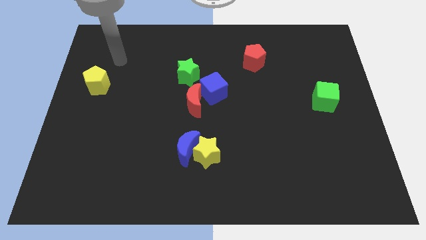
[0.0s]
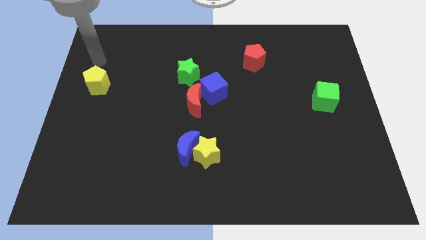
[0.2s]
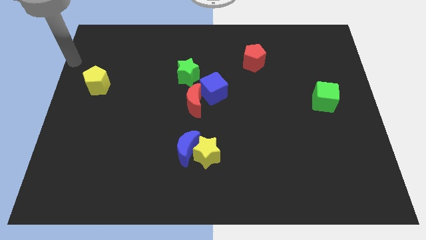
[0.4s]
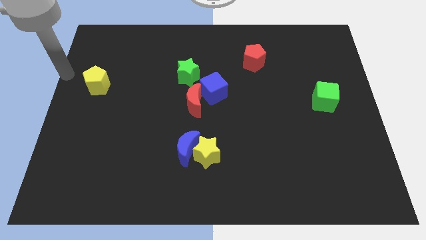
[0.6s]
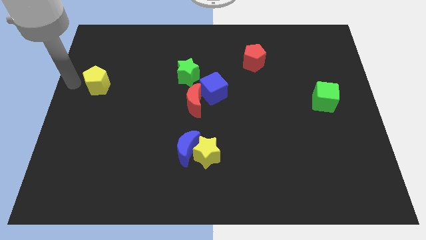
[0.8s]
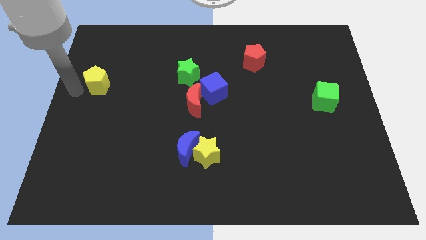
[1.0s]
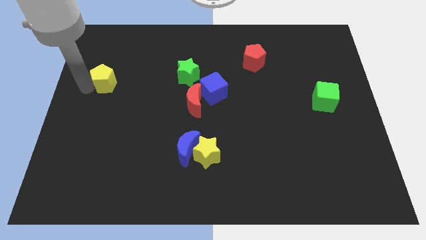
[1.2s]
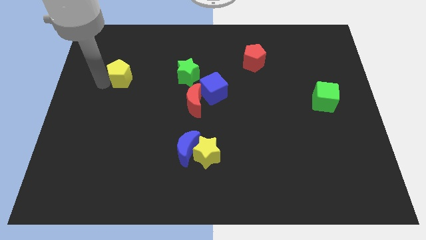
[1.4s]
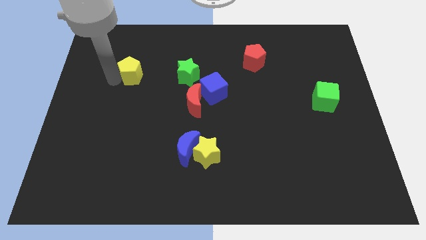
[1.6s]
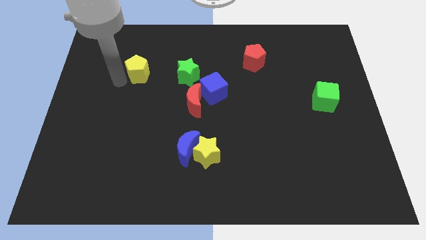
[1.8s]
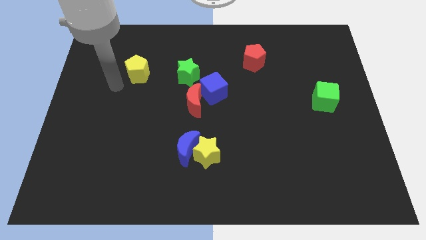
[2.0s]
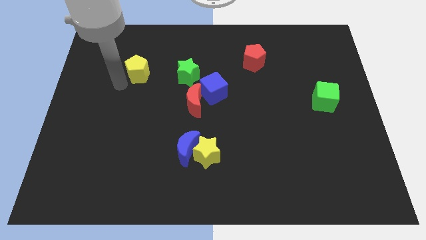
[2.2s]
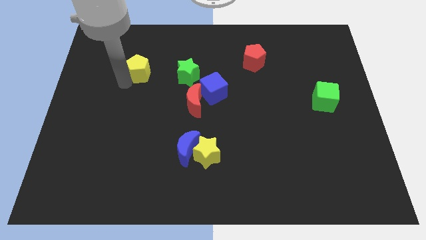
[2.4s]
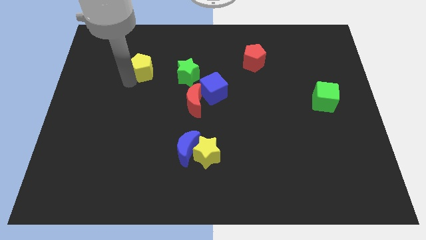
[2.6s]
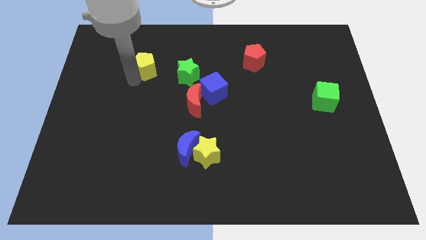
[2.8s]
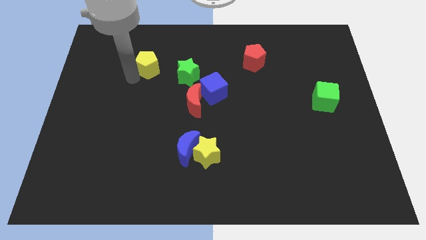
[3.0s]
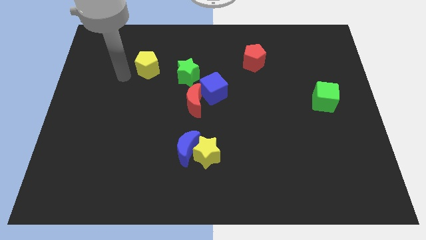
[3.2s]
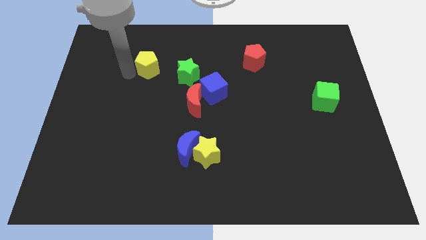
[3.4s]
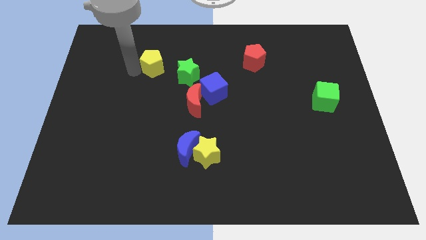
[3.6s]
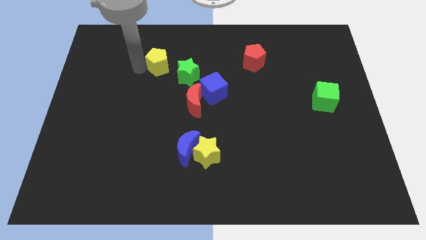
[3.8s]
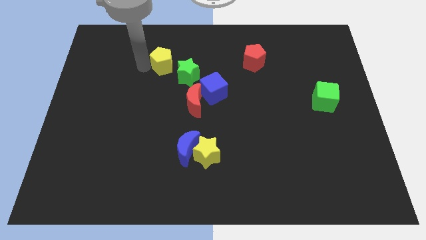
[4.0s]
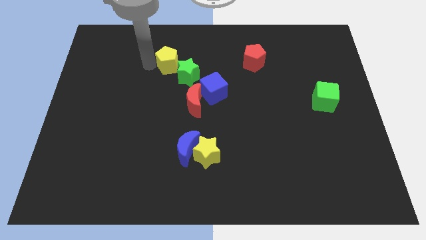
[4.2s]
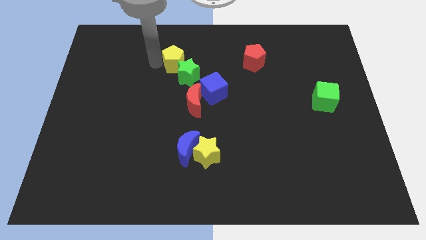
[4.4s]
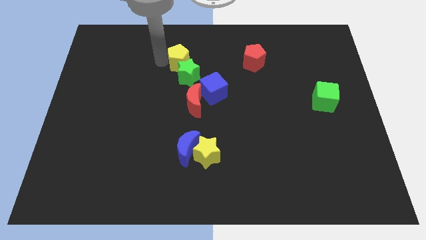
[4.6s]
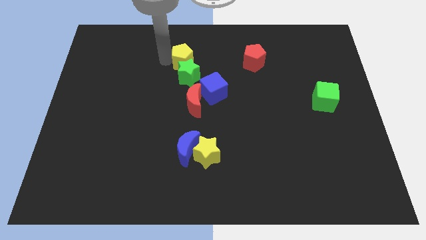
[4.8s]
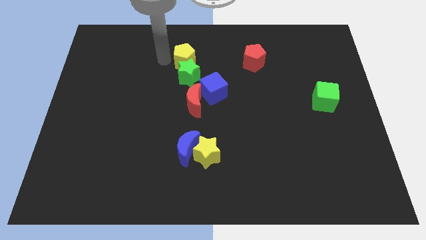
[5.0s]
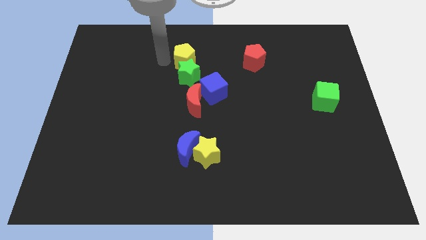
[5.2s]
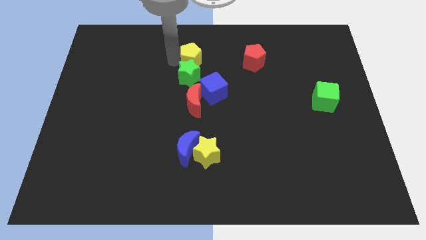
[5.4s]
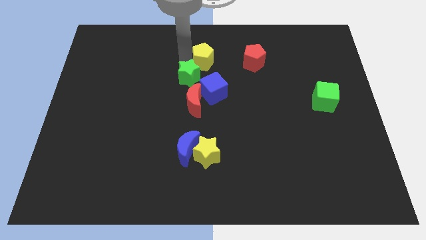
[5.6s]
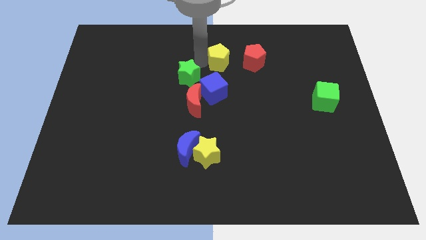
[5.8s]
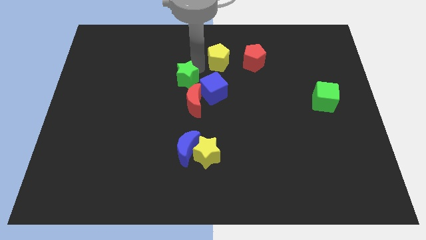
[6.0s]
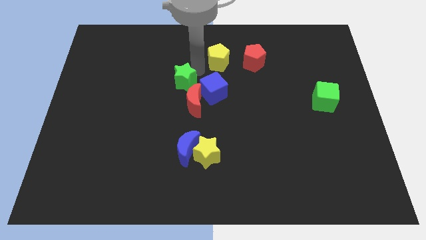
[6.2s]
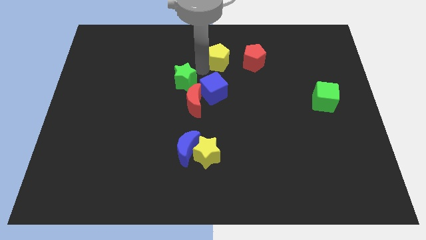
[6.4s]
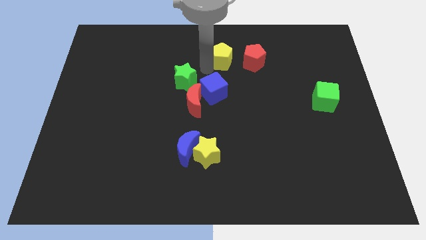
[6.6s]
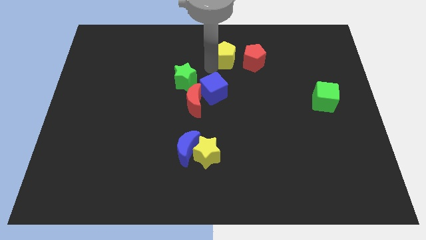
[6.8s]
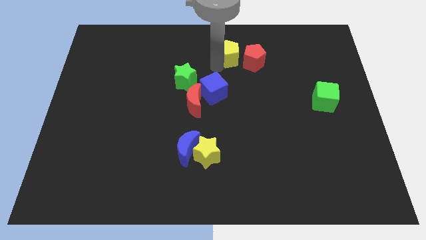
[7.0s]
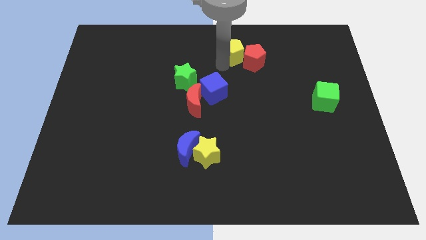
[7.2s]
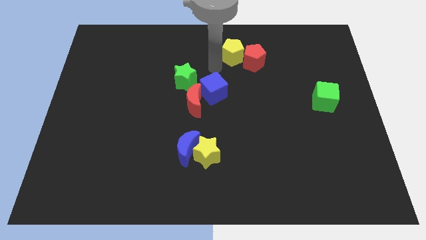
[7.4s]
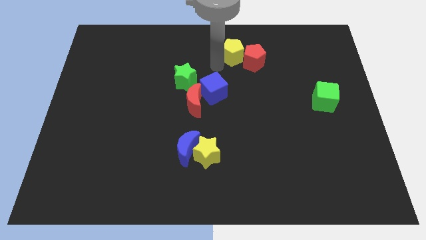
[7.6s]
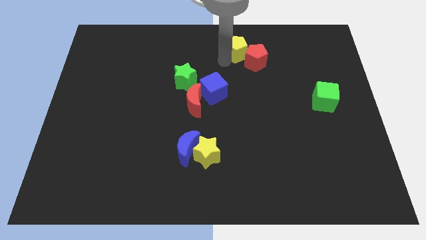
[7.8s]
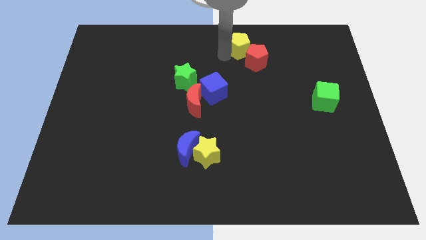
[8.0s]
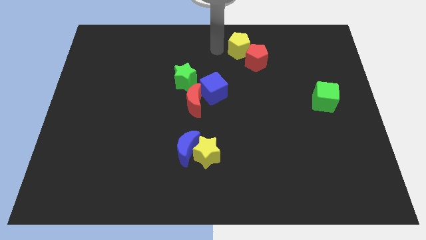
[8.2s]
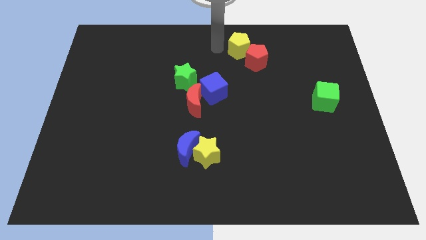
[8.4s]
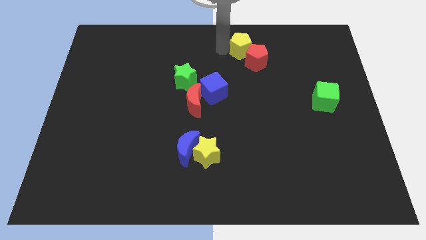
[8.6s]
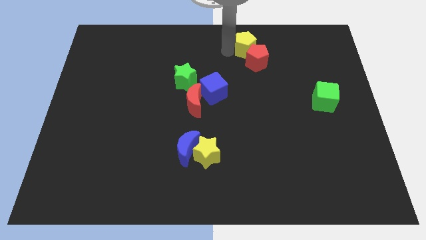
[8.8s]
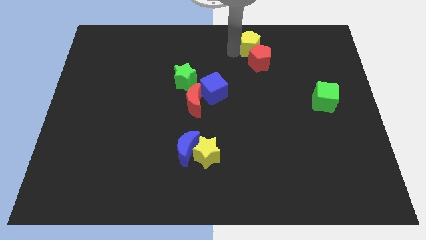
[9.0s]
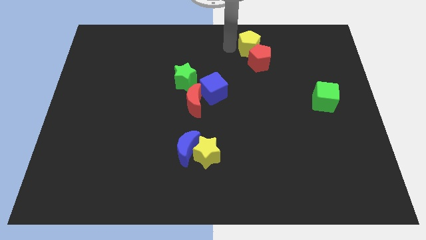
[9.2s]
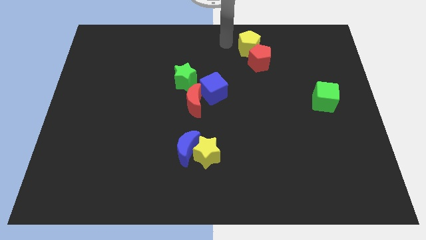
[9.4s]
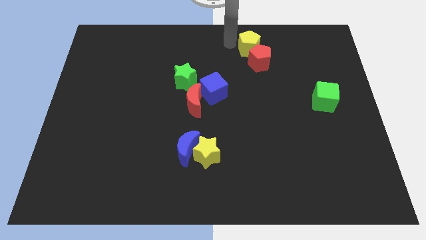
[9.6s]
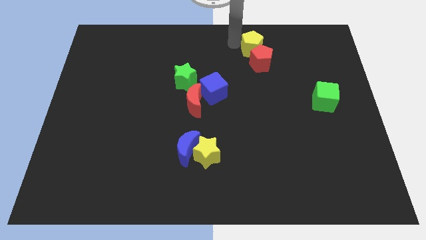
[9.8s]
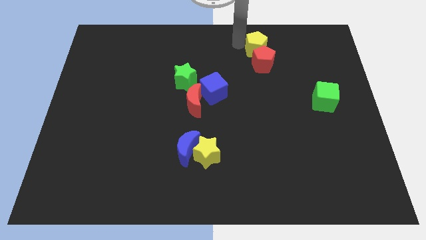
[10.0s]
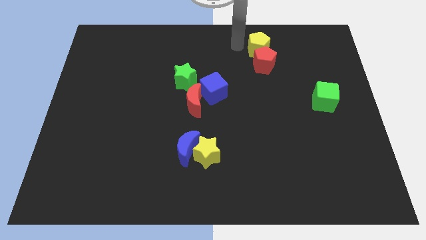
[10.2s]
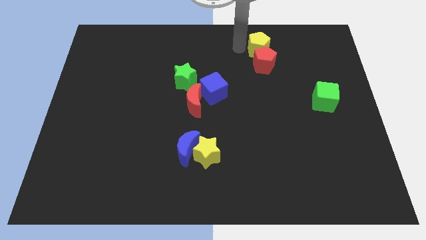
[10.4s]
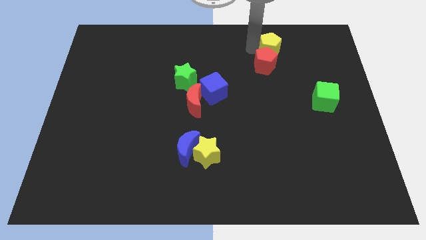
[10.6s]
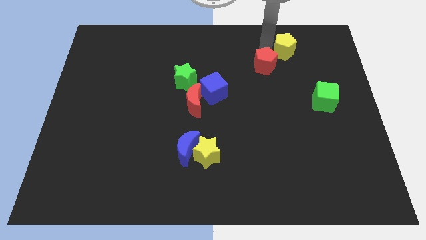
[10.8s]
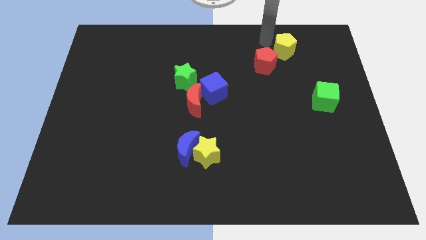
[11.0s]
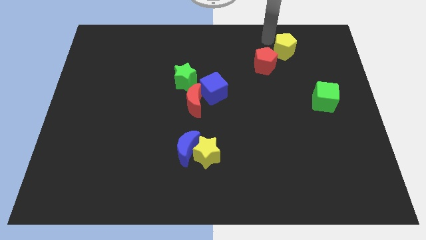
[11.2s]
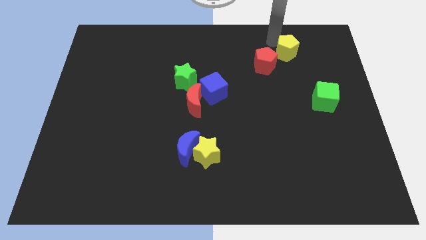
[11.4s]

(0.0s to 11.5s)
push the yellow pentagon to the right side of the red pentagon

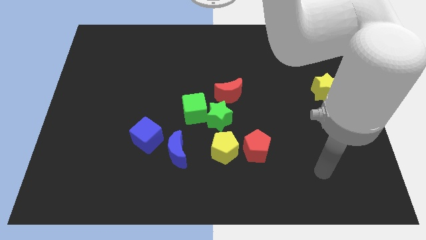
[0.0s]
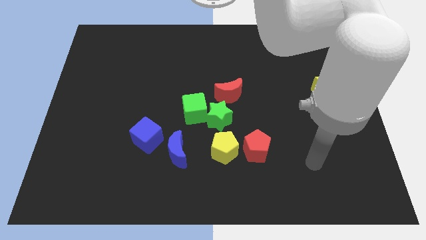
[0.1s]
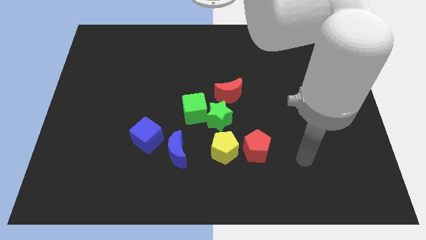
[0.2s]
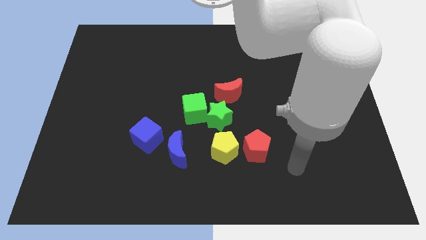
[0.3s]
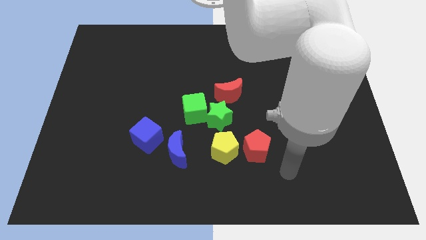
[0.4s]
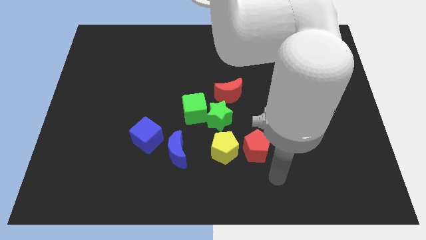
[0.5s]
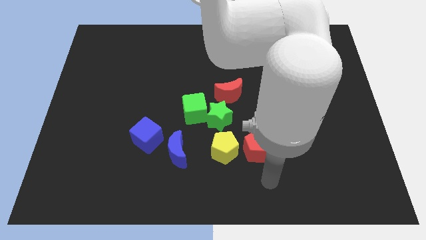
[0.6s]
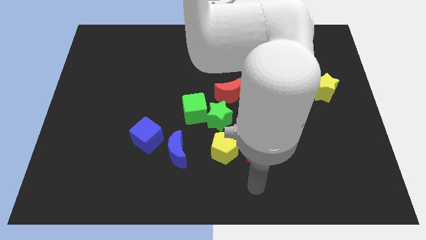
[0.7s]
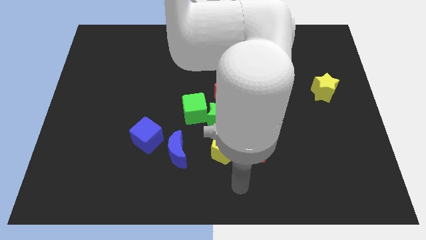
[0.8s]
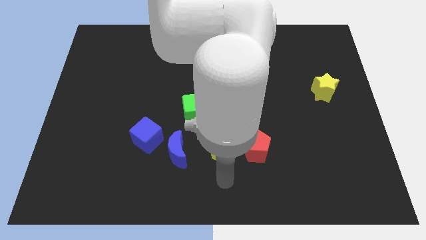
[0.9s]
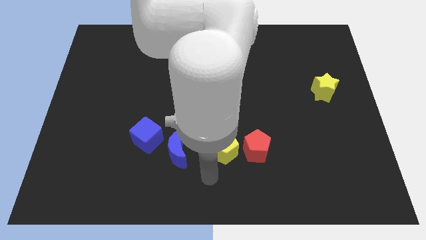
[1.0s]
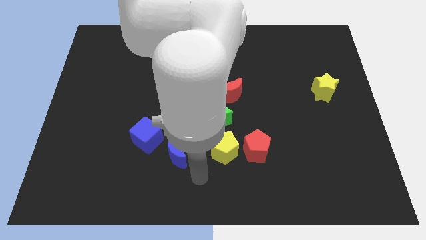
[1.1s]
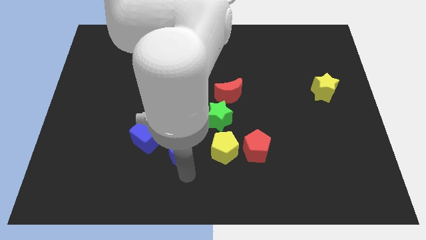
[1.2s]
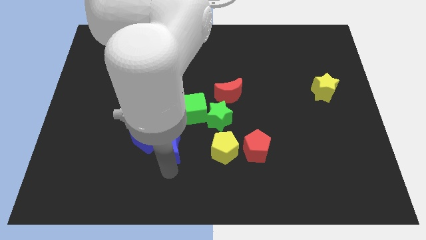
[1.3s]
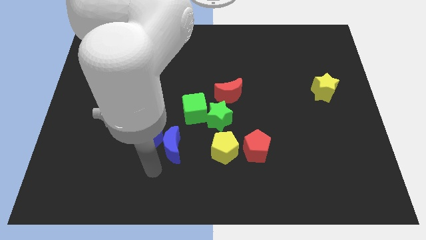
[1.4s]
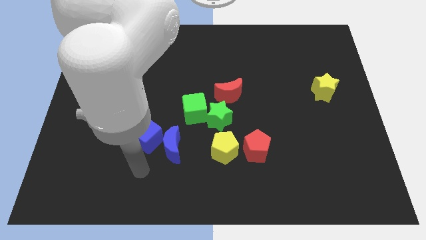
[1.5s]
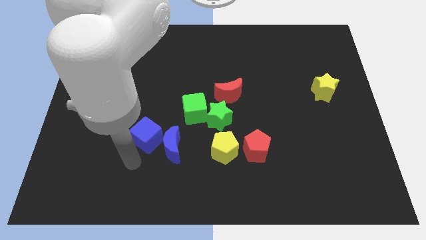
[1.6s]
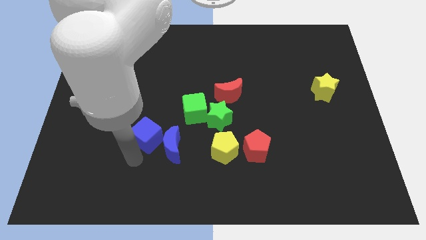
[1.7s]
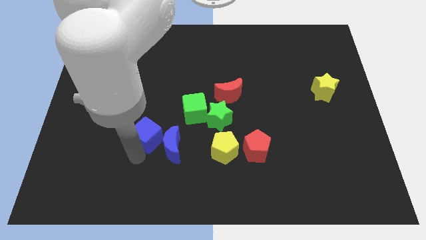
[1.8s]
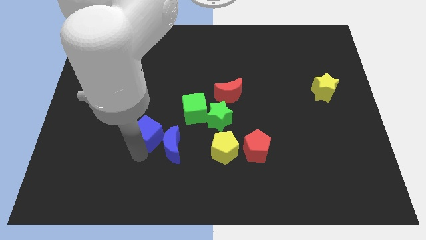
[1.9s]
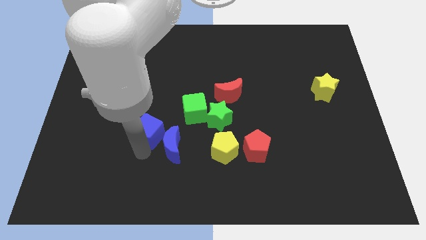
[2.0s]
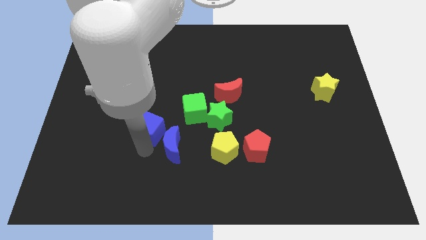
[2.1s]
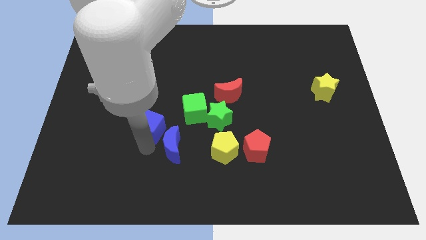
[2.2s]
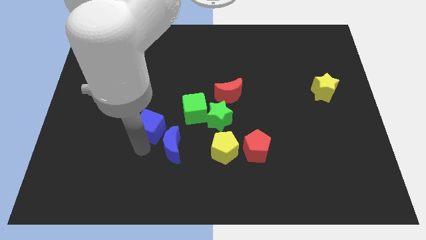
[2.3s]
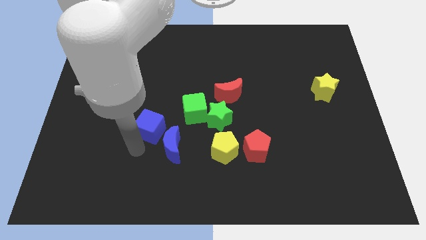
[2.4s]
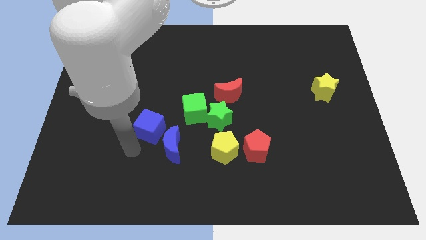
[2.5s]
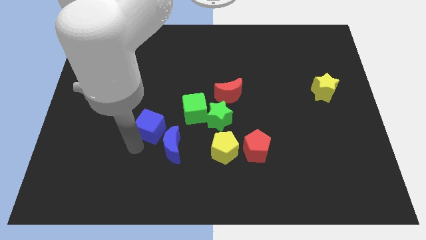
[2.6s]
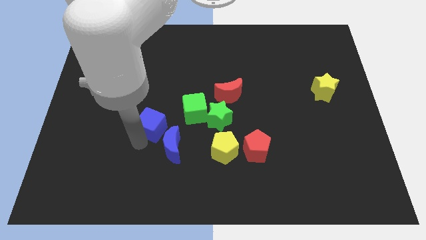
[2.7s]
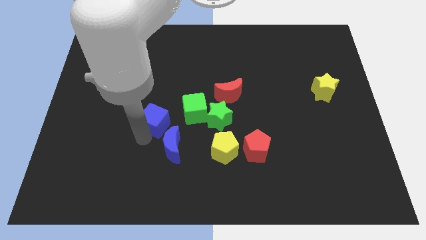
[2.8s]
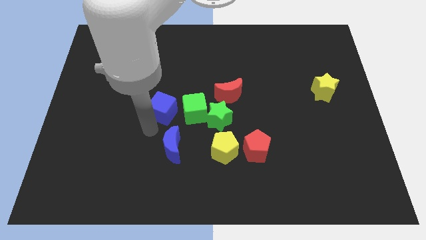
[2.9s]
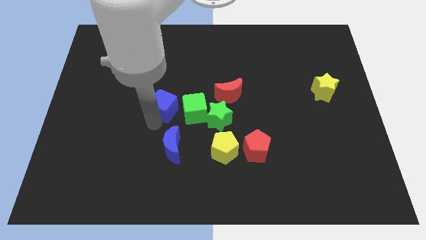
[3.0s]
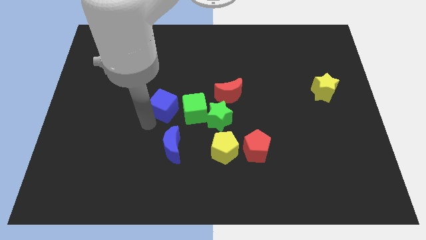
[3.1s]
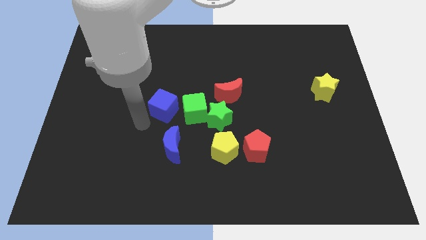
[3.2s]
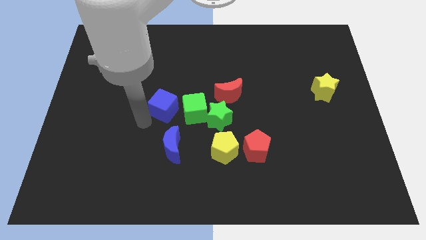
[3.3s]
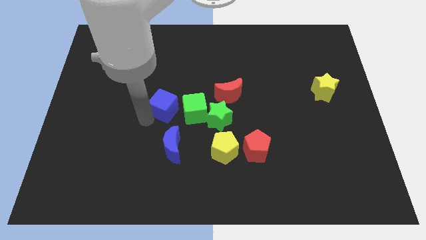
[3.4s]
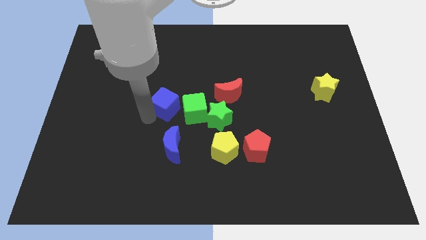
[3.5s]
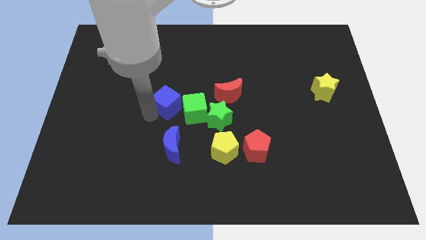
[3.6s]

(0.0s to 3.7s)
move the blue cube left of the red moon
